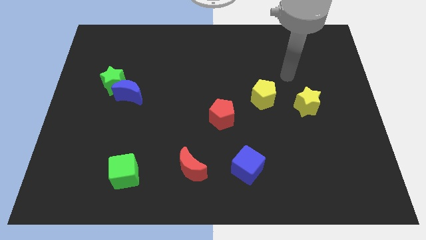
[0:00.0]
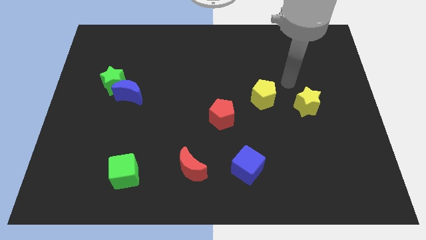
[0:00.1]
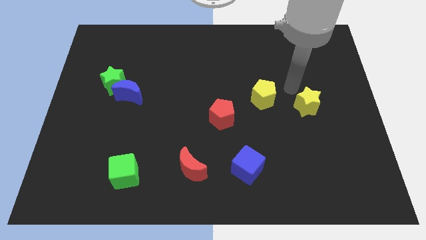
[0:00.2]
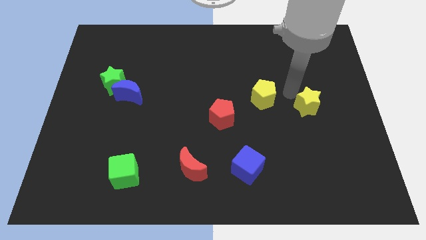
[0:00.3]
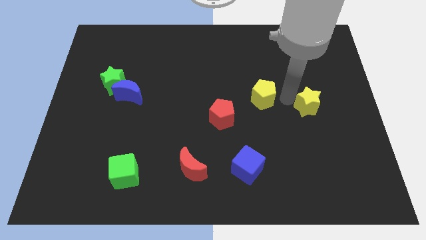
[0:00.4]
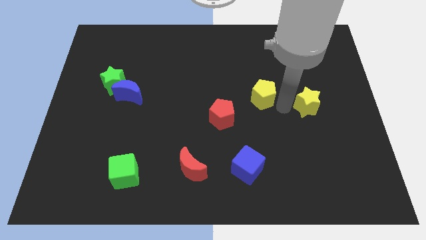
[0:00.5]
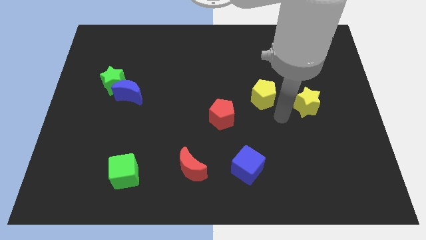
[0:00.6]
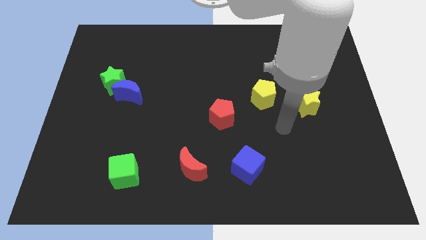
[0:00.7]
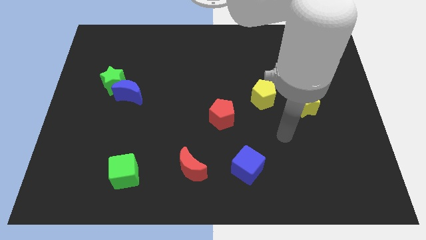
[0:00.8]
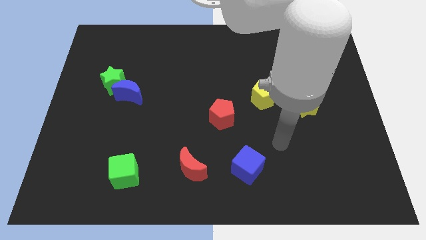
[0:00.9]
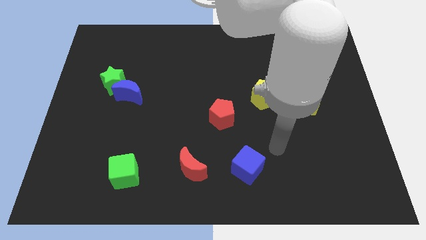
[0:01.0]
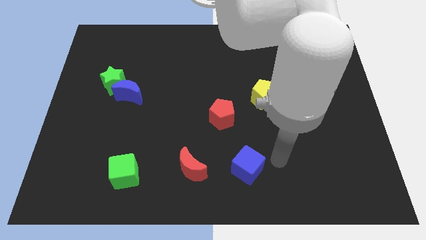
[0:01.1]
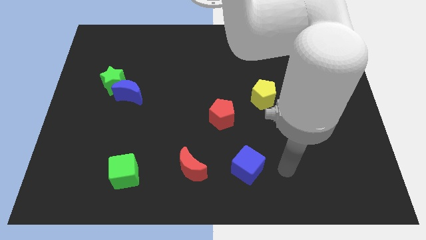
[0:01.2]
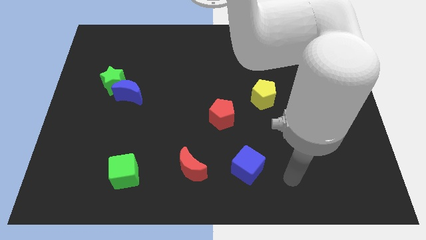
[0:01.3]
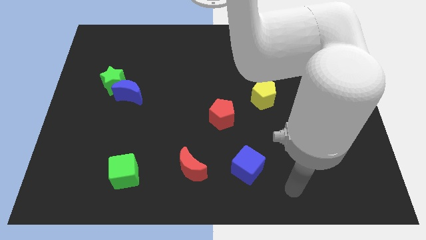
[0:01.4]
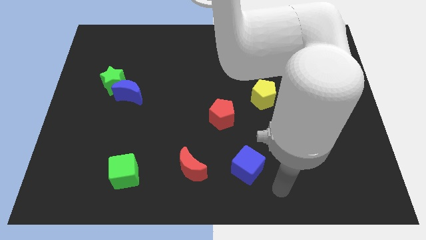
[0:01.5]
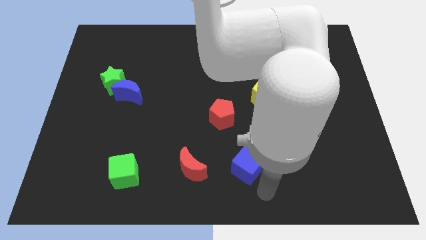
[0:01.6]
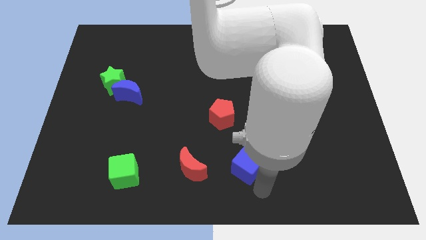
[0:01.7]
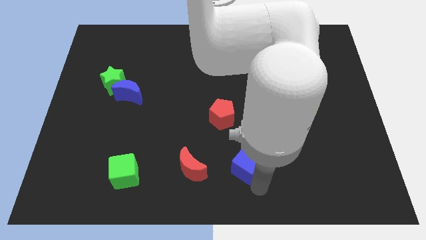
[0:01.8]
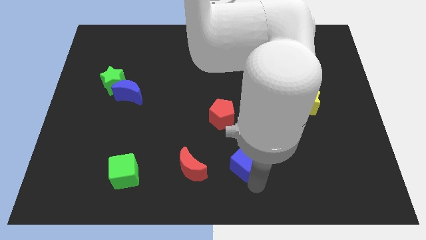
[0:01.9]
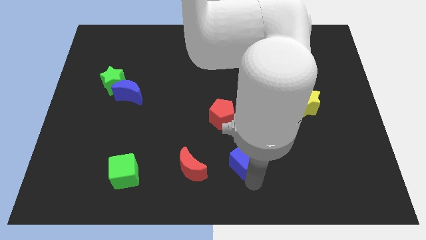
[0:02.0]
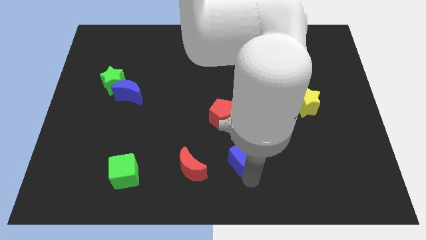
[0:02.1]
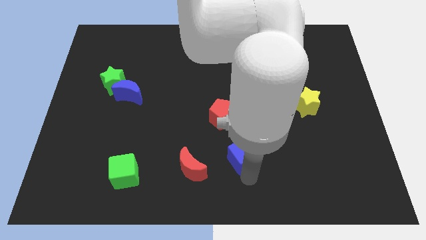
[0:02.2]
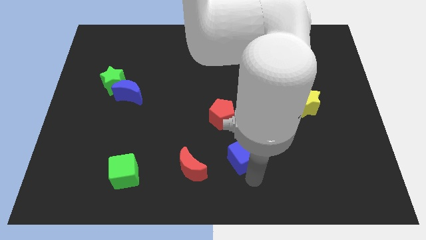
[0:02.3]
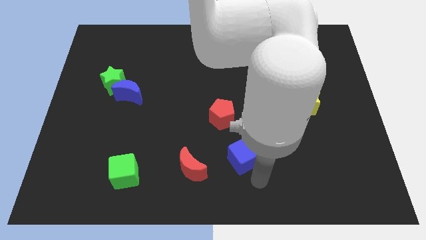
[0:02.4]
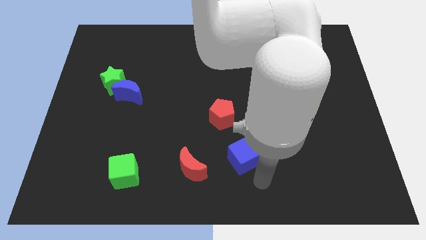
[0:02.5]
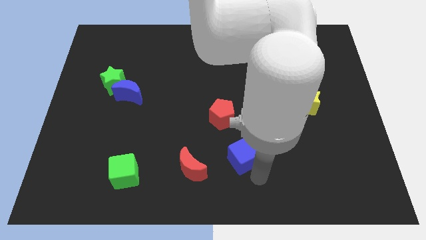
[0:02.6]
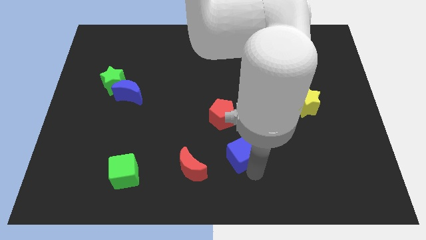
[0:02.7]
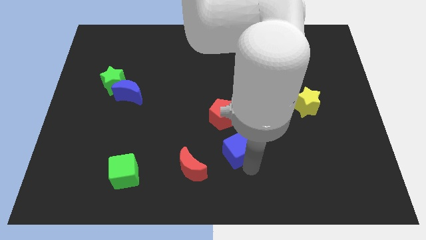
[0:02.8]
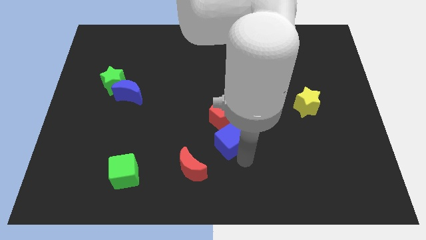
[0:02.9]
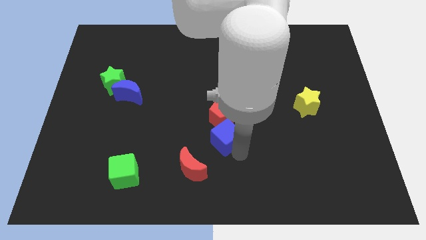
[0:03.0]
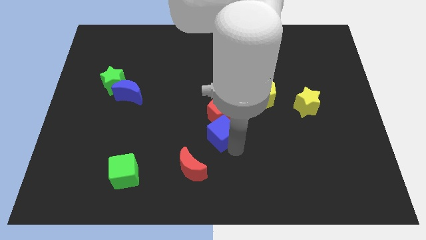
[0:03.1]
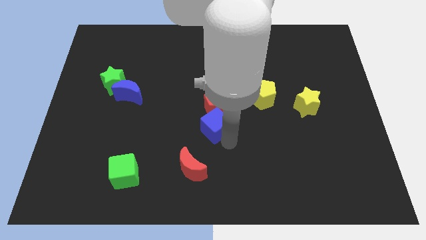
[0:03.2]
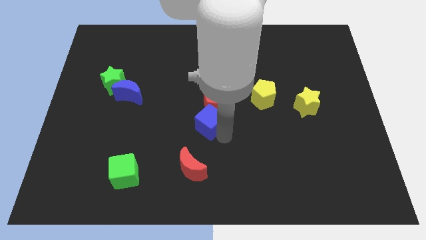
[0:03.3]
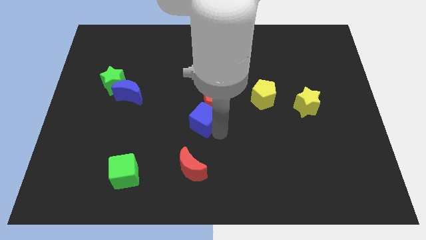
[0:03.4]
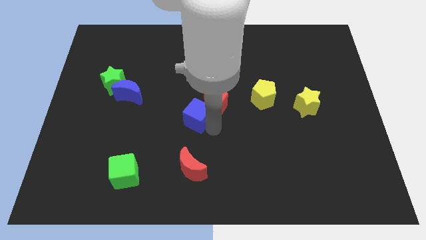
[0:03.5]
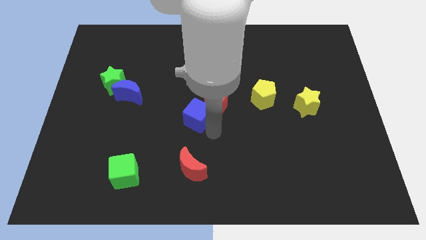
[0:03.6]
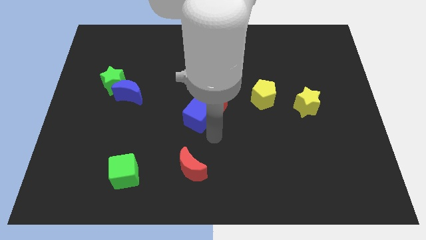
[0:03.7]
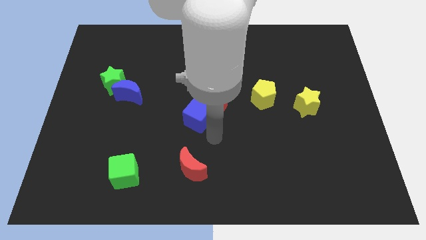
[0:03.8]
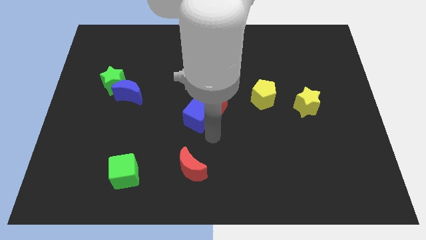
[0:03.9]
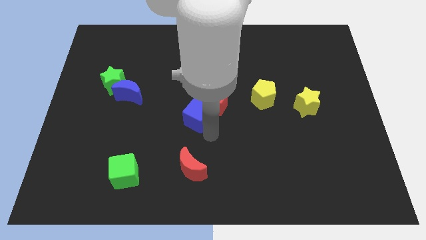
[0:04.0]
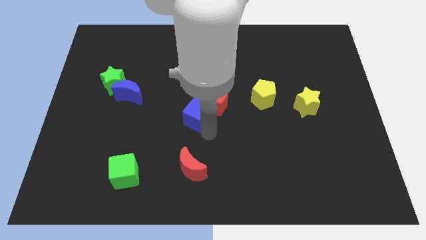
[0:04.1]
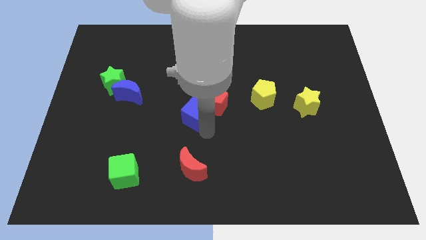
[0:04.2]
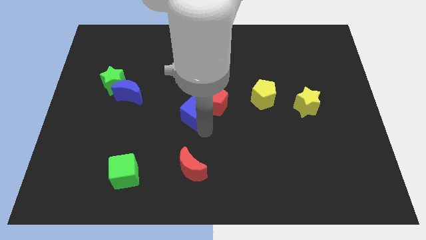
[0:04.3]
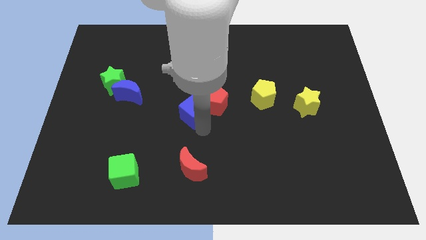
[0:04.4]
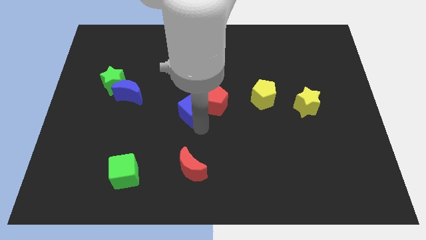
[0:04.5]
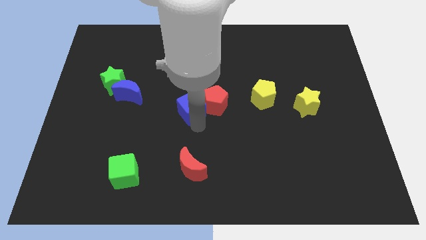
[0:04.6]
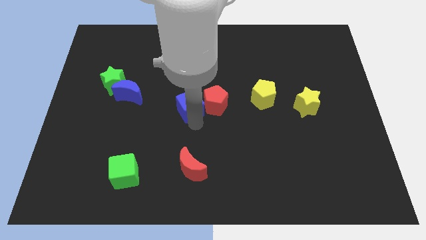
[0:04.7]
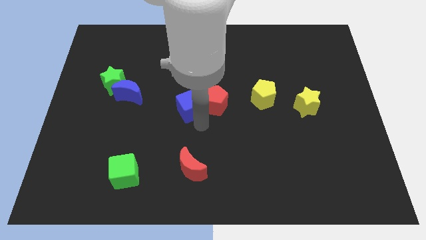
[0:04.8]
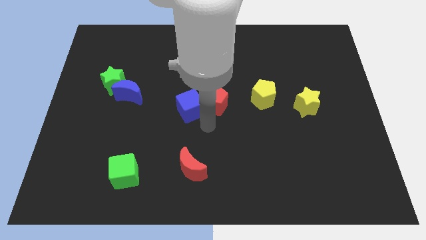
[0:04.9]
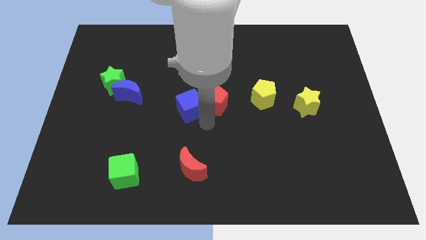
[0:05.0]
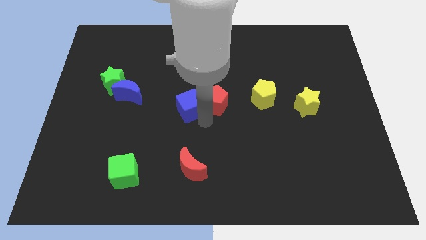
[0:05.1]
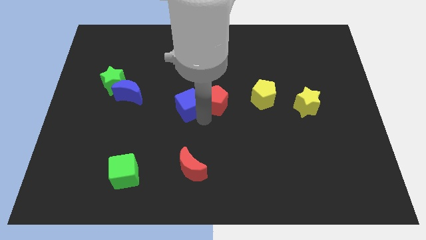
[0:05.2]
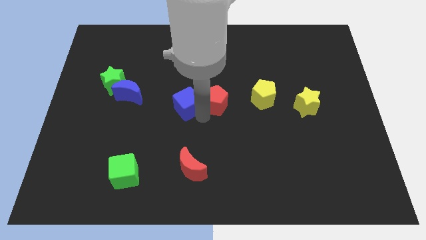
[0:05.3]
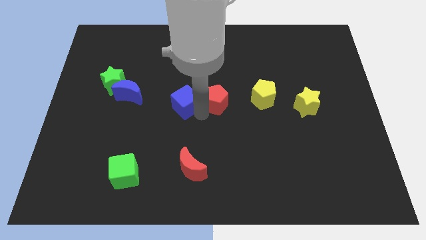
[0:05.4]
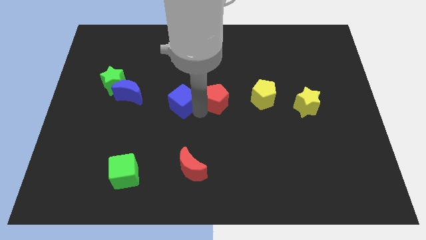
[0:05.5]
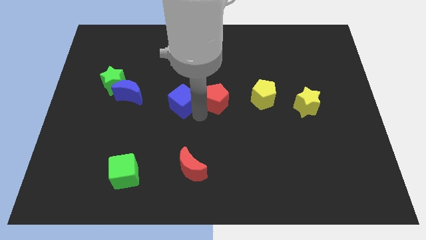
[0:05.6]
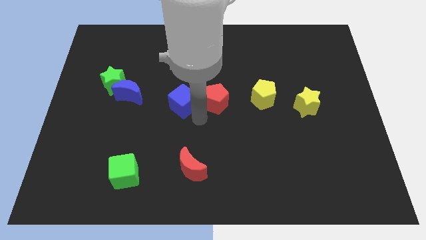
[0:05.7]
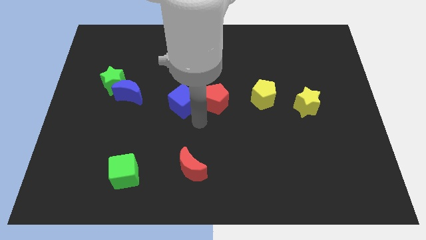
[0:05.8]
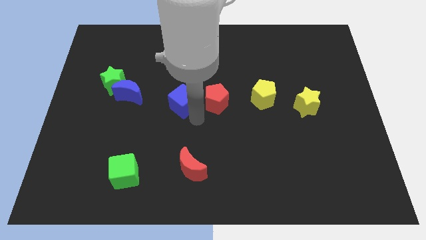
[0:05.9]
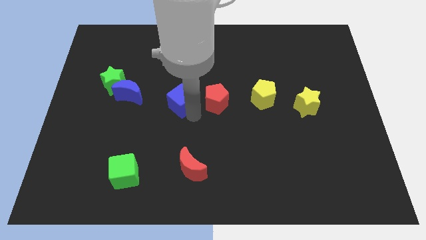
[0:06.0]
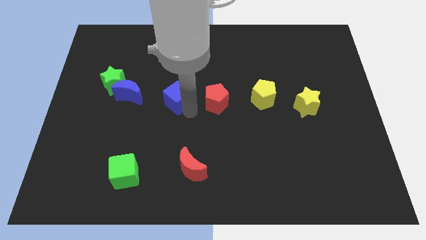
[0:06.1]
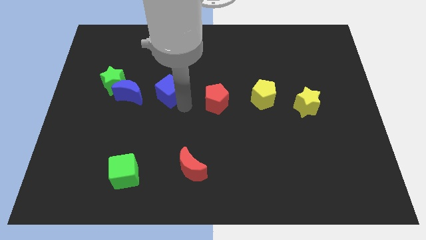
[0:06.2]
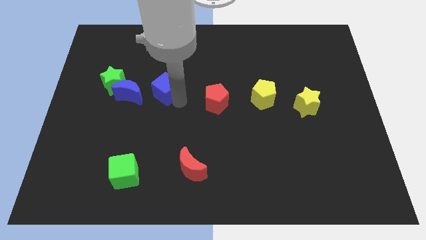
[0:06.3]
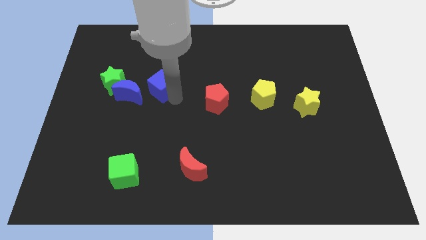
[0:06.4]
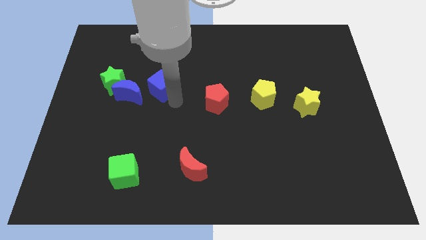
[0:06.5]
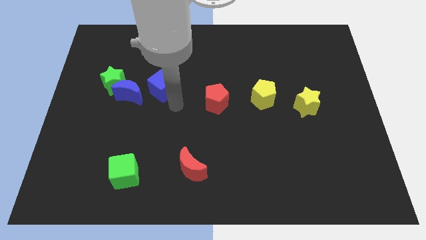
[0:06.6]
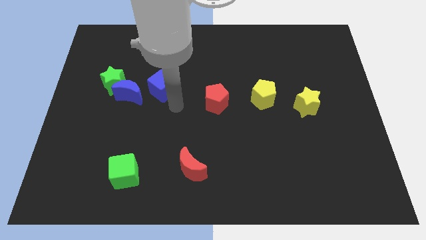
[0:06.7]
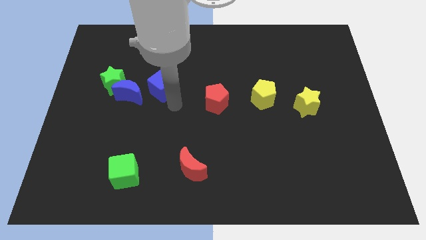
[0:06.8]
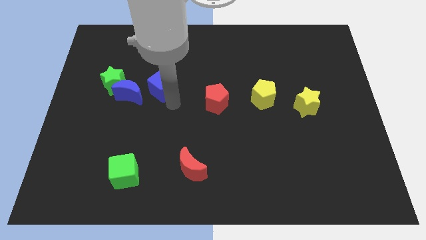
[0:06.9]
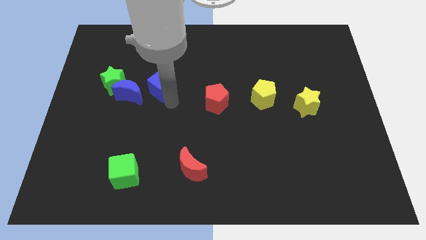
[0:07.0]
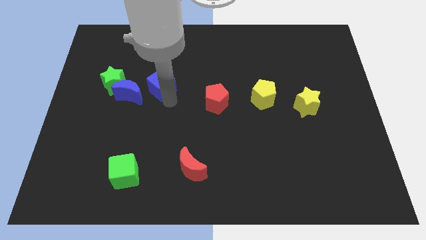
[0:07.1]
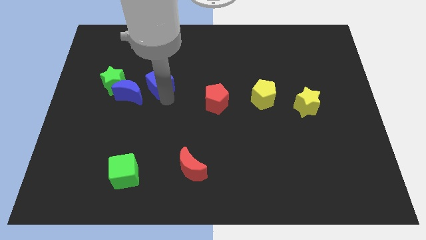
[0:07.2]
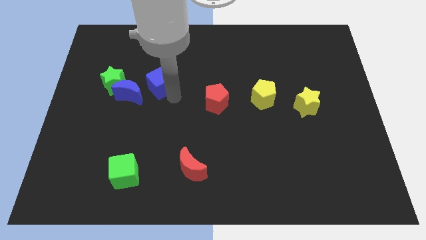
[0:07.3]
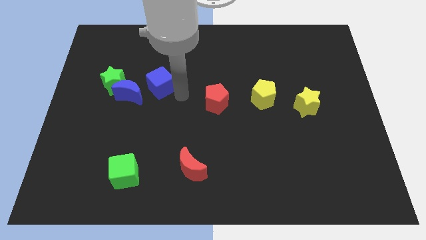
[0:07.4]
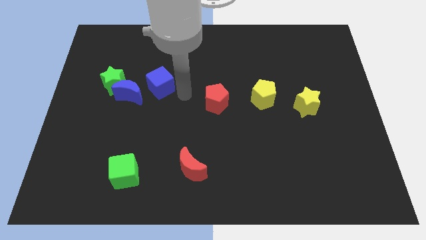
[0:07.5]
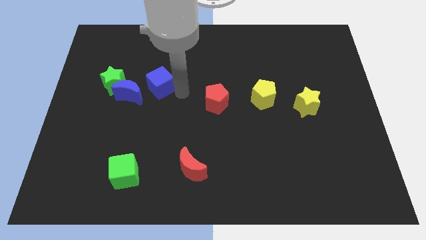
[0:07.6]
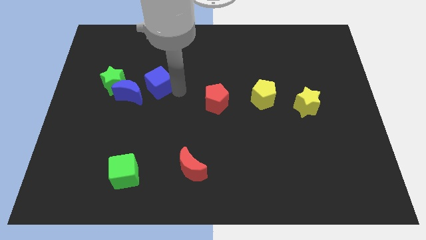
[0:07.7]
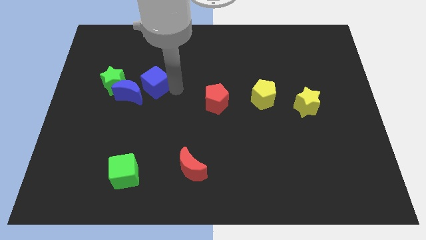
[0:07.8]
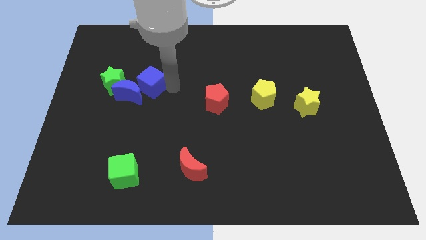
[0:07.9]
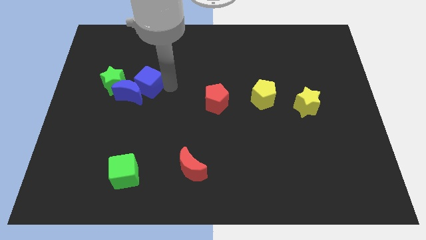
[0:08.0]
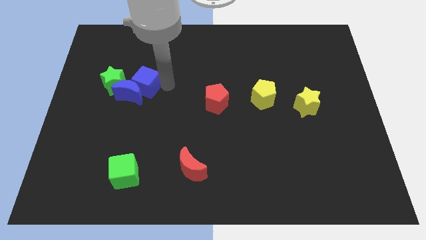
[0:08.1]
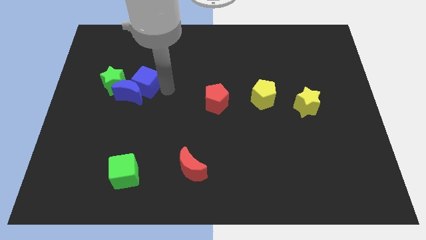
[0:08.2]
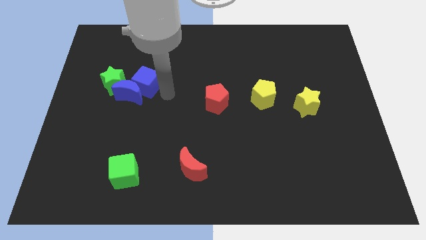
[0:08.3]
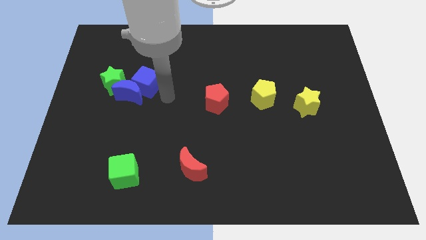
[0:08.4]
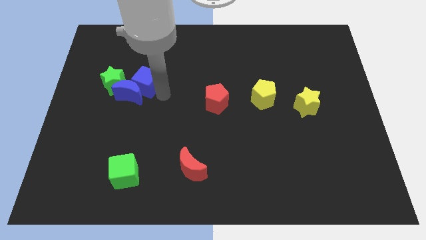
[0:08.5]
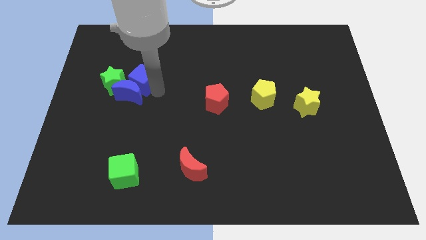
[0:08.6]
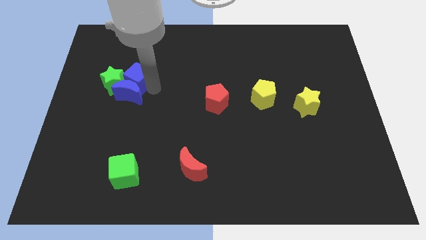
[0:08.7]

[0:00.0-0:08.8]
put the blue cube diagonally up and to the left of the blue moon
